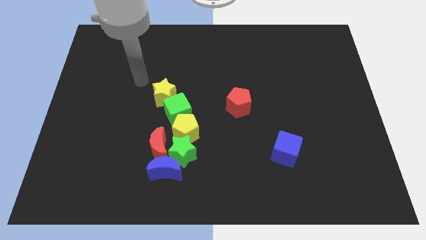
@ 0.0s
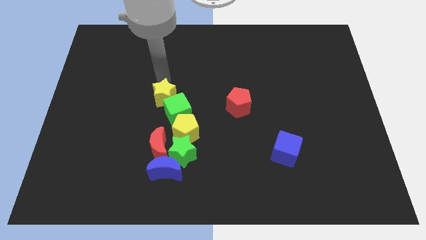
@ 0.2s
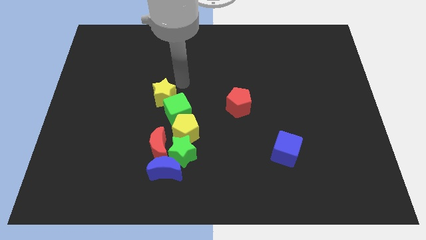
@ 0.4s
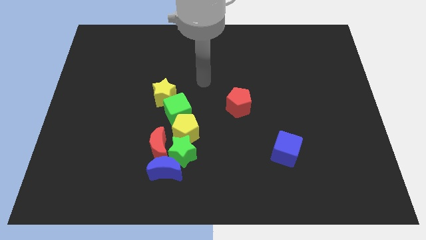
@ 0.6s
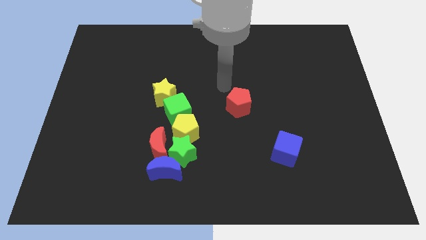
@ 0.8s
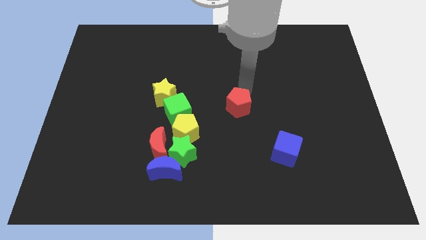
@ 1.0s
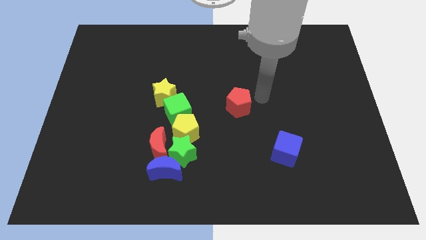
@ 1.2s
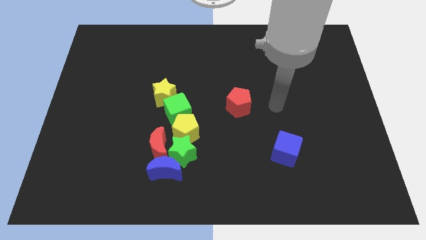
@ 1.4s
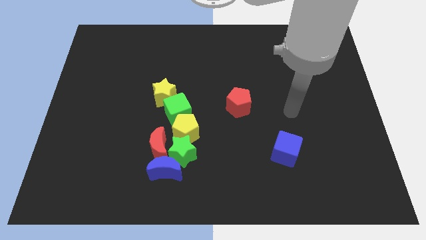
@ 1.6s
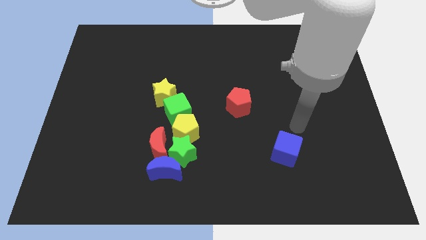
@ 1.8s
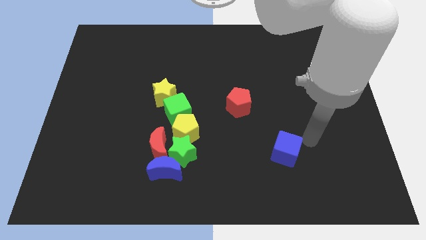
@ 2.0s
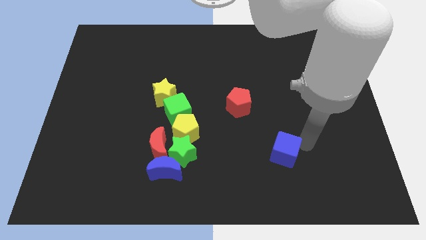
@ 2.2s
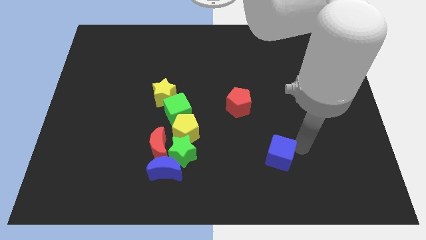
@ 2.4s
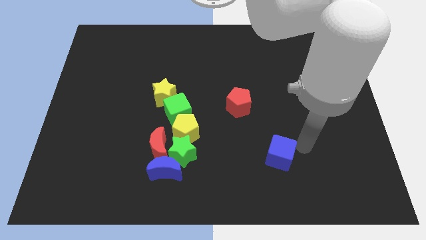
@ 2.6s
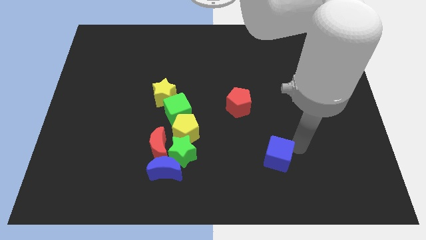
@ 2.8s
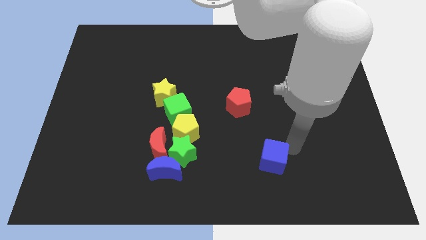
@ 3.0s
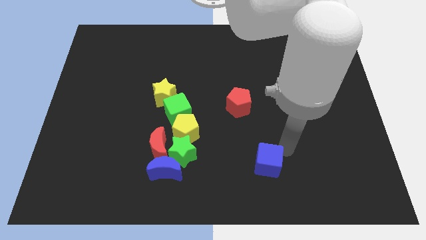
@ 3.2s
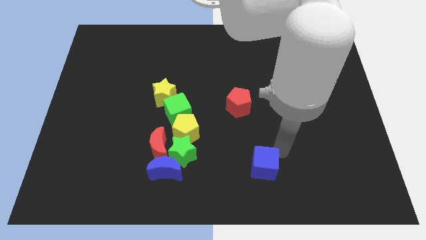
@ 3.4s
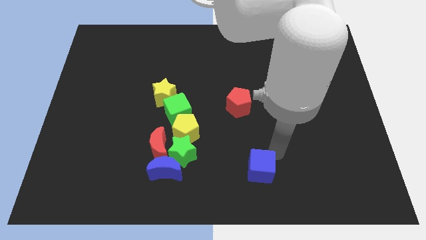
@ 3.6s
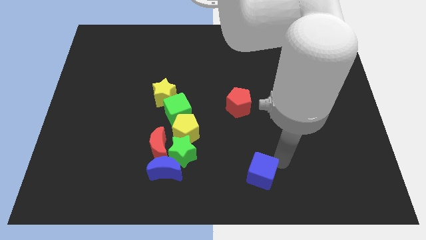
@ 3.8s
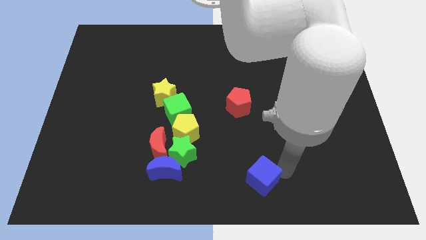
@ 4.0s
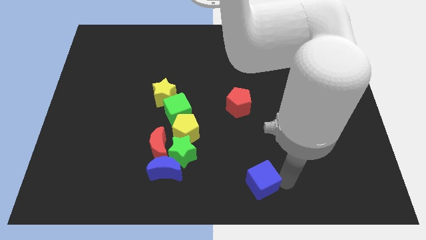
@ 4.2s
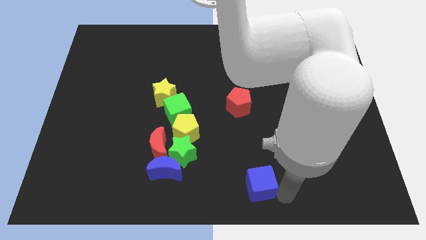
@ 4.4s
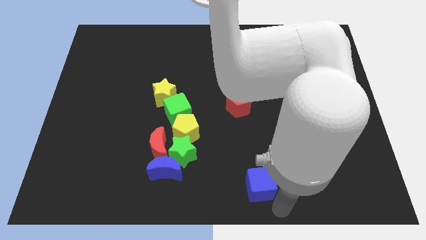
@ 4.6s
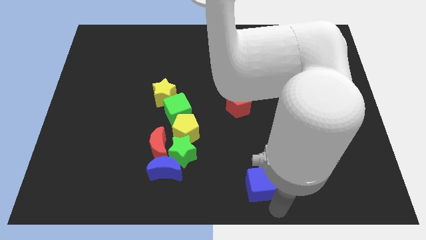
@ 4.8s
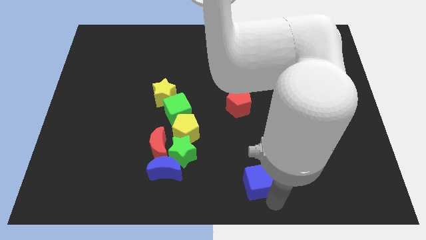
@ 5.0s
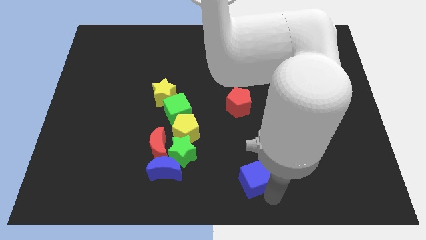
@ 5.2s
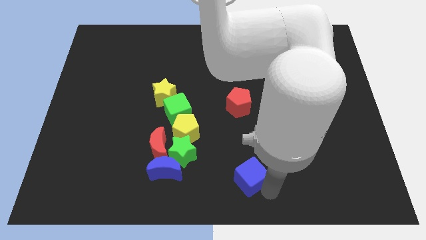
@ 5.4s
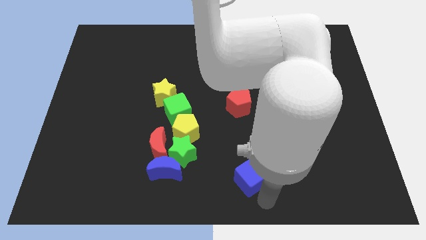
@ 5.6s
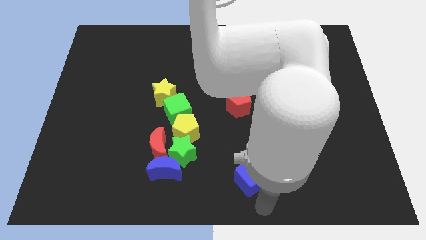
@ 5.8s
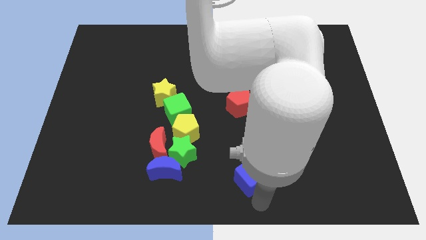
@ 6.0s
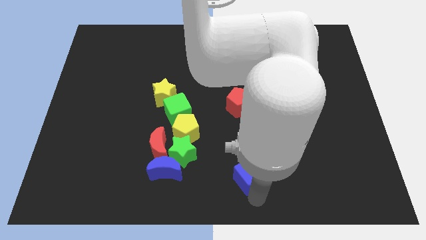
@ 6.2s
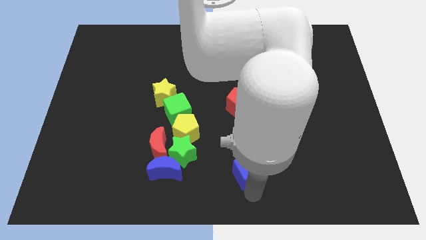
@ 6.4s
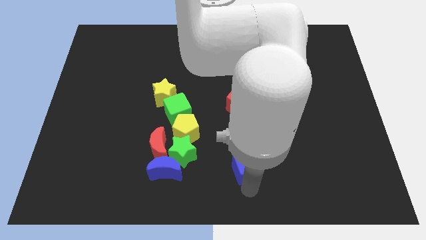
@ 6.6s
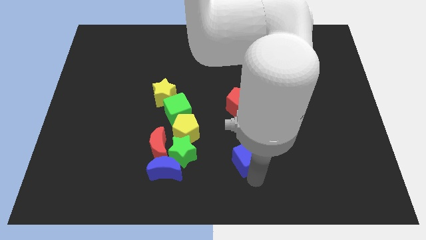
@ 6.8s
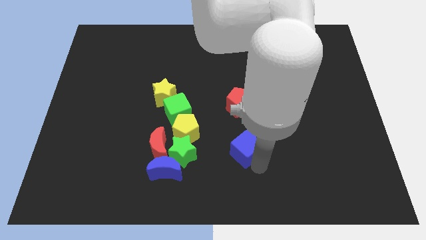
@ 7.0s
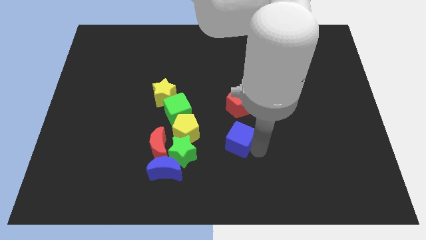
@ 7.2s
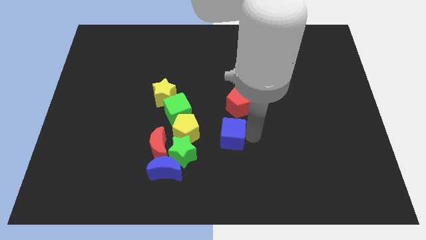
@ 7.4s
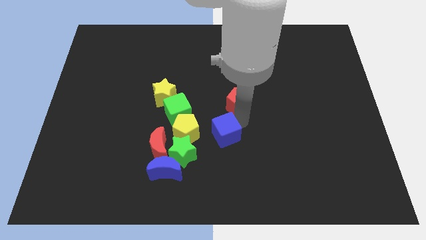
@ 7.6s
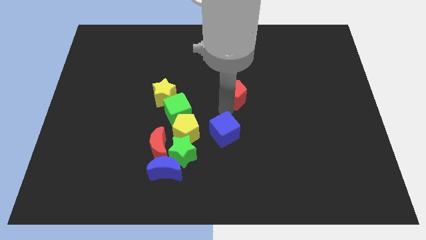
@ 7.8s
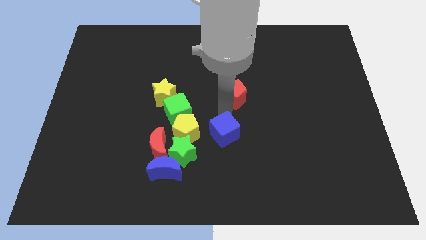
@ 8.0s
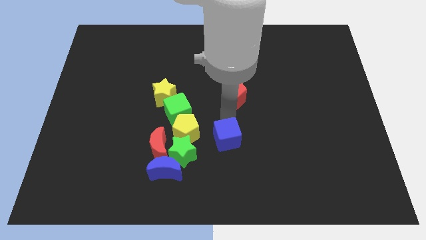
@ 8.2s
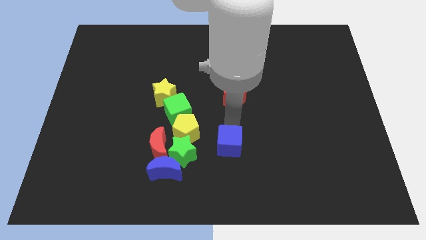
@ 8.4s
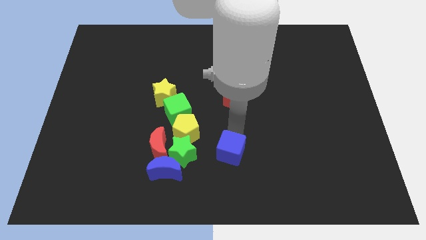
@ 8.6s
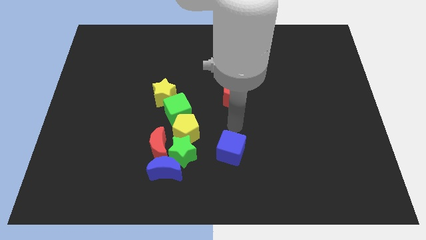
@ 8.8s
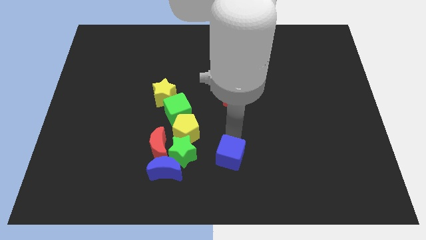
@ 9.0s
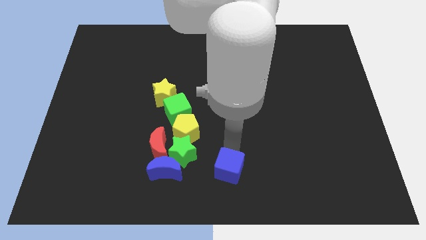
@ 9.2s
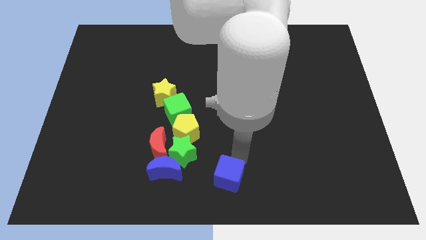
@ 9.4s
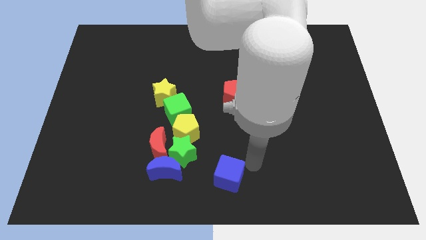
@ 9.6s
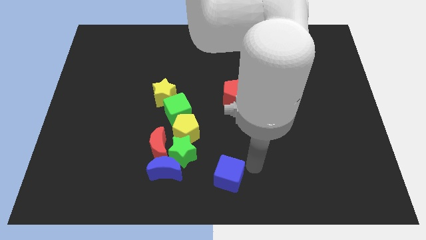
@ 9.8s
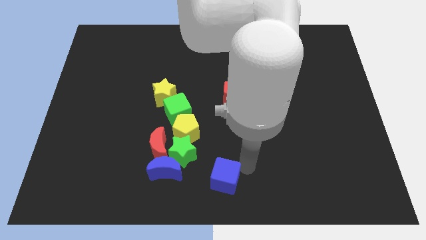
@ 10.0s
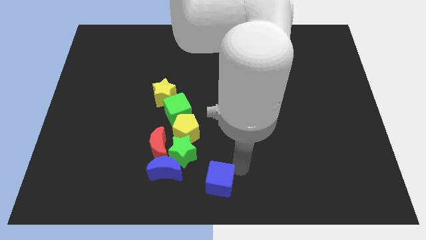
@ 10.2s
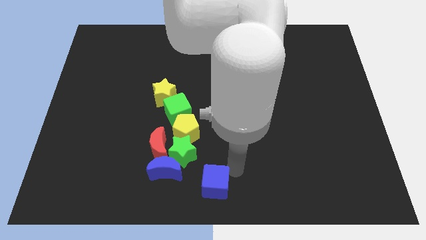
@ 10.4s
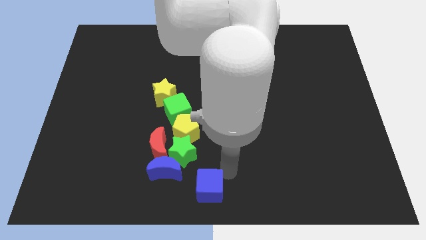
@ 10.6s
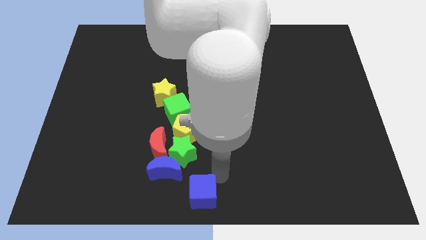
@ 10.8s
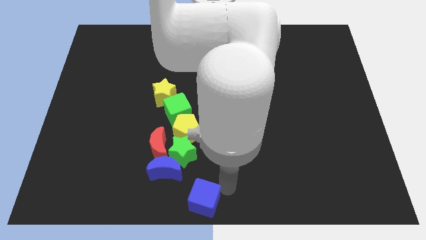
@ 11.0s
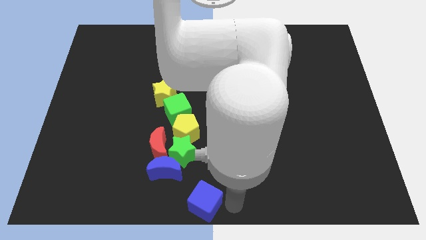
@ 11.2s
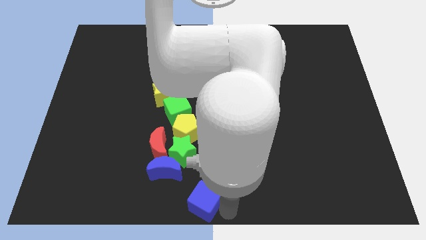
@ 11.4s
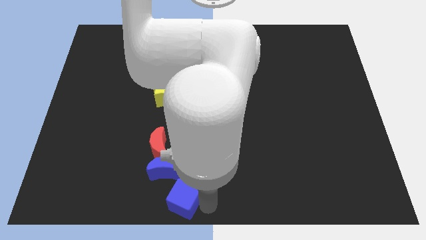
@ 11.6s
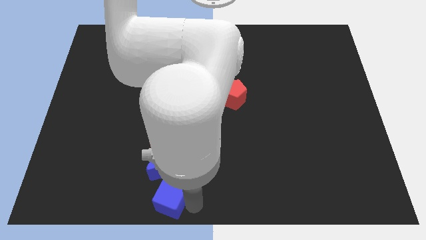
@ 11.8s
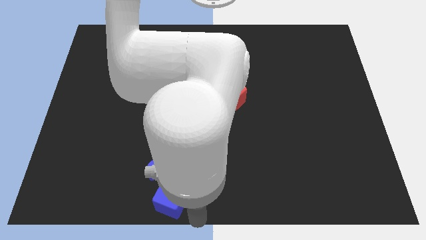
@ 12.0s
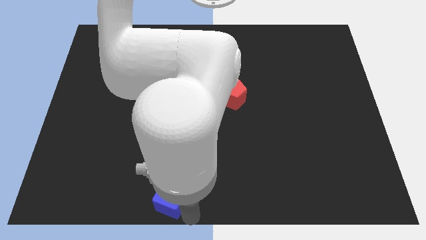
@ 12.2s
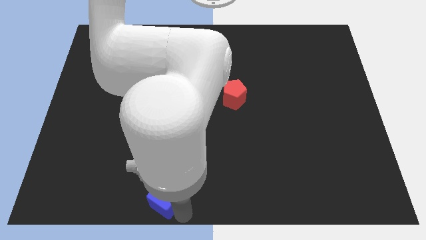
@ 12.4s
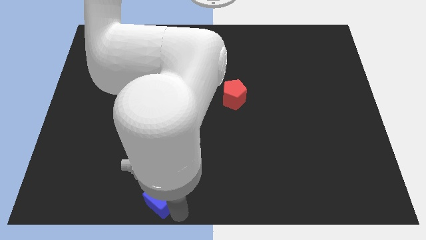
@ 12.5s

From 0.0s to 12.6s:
push the blue cube left

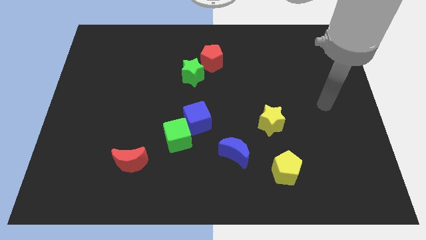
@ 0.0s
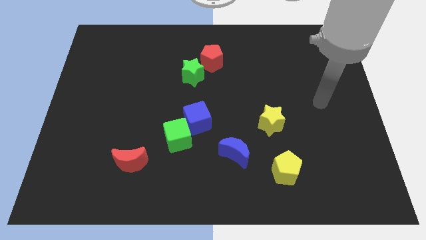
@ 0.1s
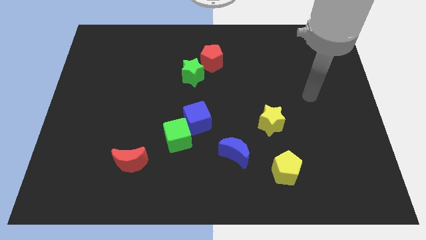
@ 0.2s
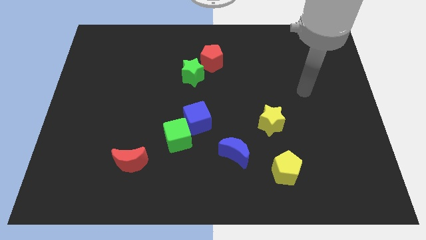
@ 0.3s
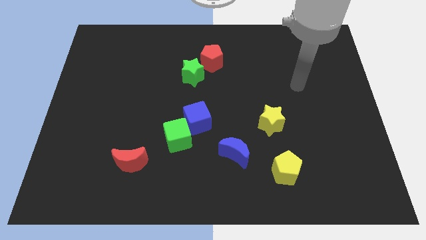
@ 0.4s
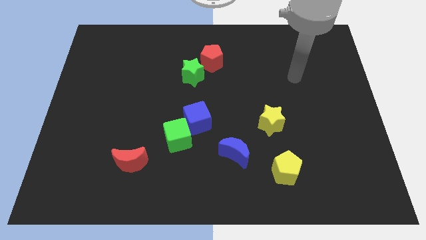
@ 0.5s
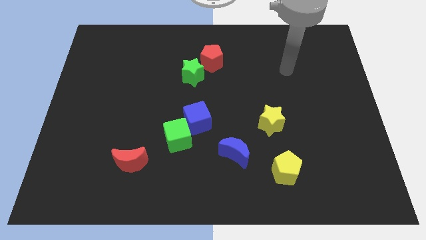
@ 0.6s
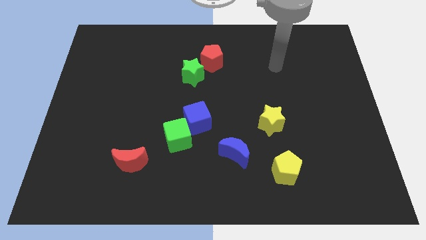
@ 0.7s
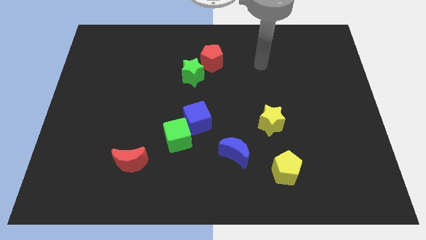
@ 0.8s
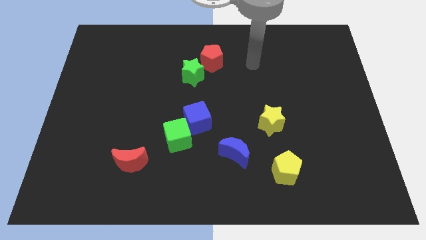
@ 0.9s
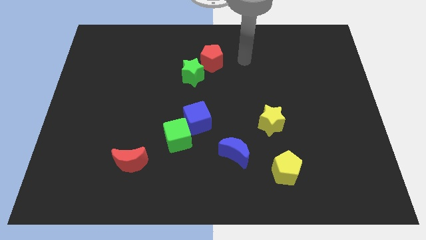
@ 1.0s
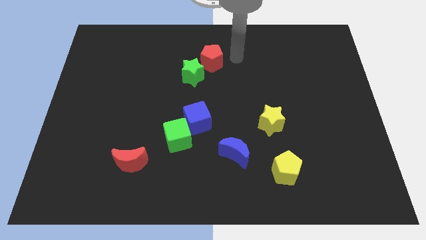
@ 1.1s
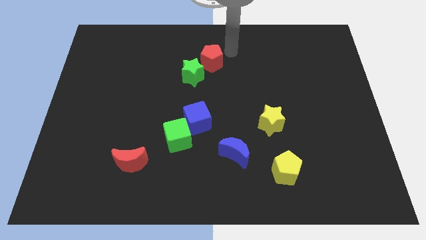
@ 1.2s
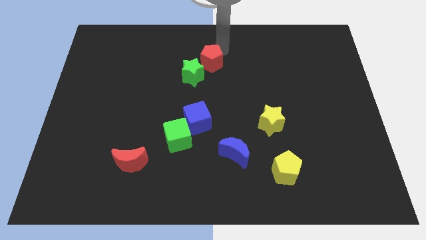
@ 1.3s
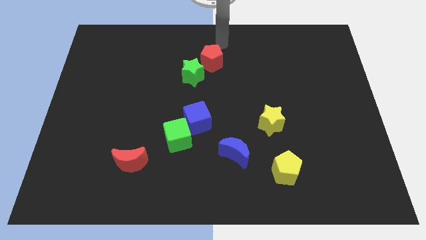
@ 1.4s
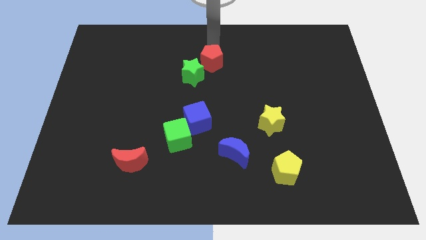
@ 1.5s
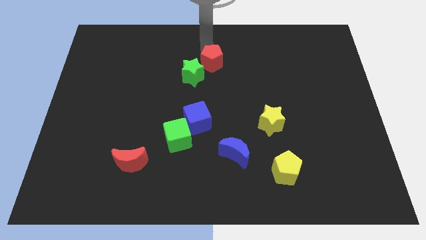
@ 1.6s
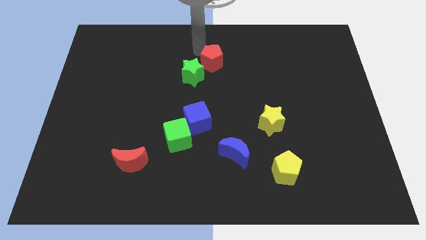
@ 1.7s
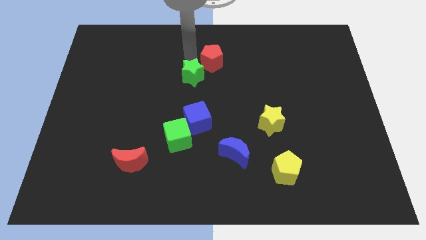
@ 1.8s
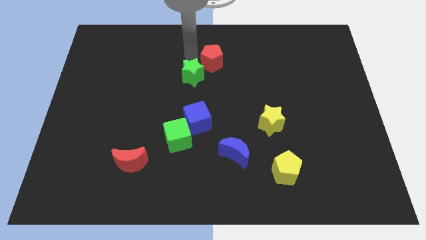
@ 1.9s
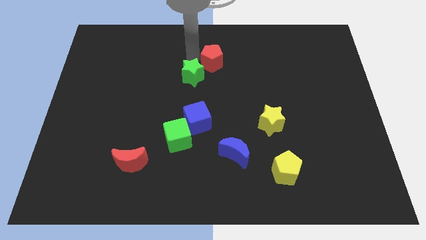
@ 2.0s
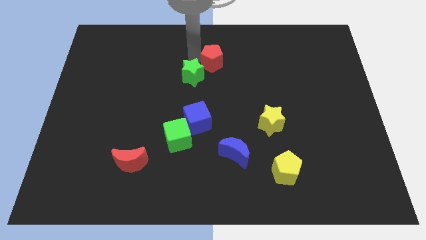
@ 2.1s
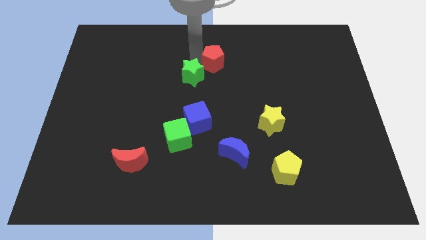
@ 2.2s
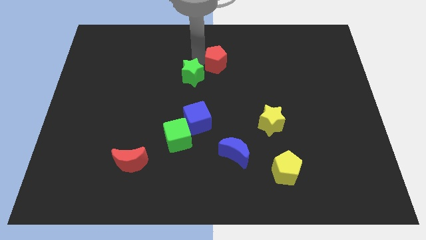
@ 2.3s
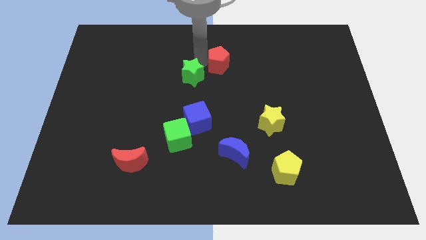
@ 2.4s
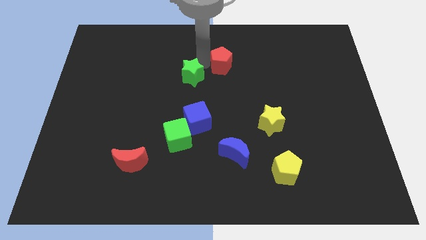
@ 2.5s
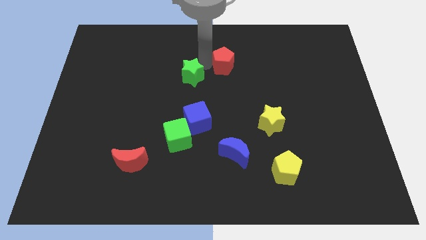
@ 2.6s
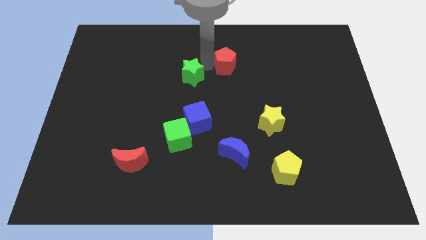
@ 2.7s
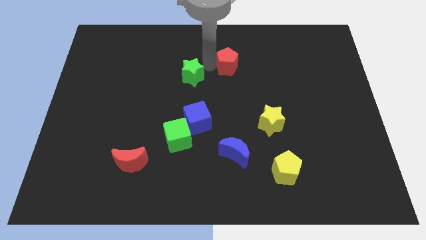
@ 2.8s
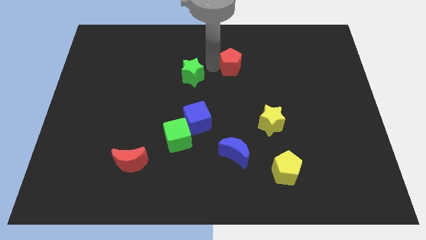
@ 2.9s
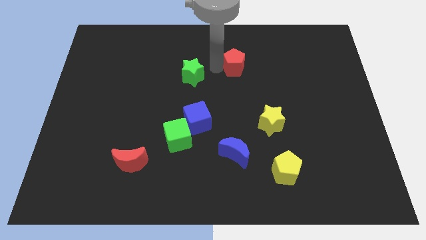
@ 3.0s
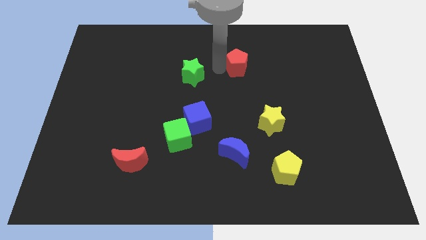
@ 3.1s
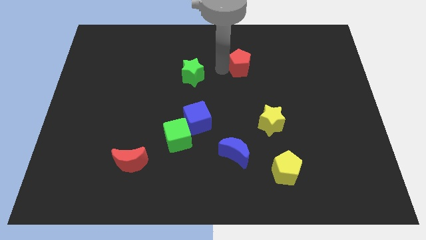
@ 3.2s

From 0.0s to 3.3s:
move the red pentagon right a bit
